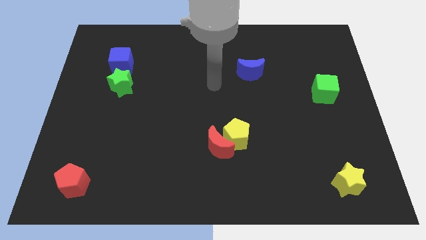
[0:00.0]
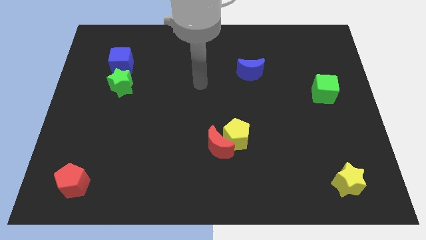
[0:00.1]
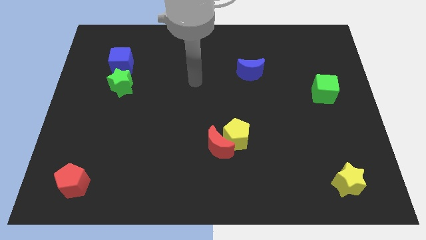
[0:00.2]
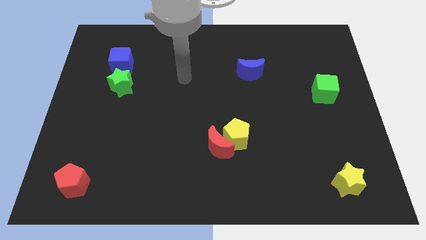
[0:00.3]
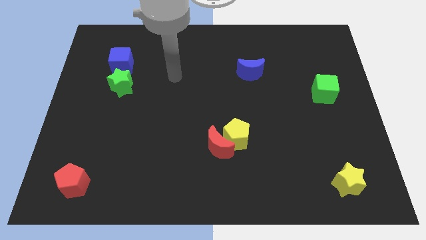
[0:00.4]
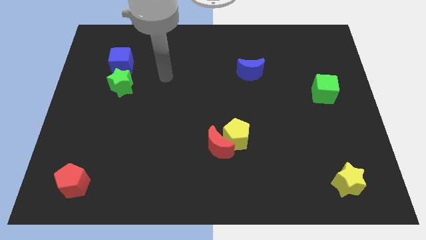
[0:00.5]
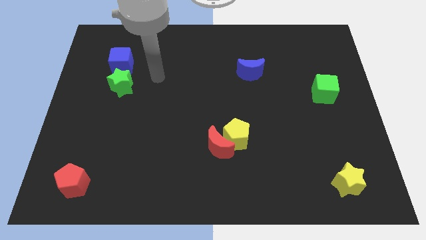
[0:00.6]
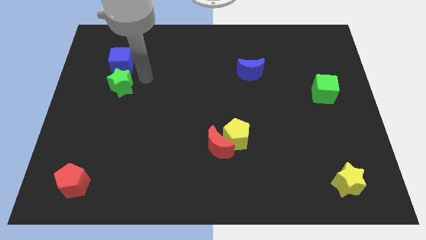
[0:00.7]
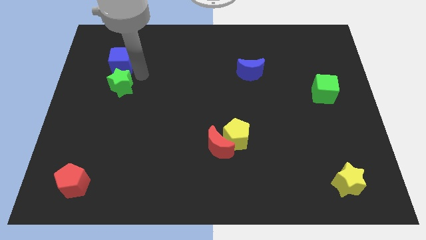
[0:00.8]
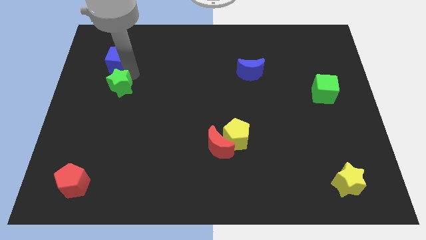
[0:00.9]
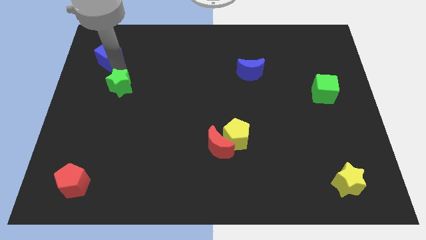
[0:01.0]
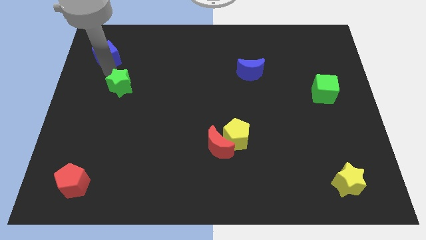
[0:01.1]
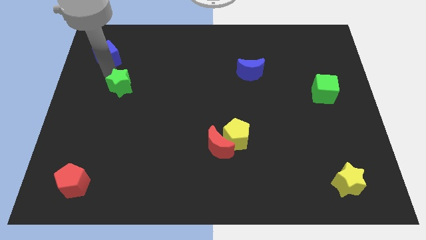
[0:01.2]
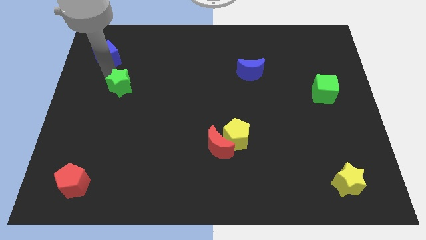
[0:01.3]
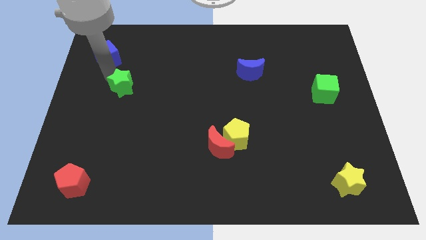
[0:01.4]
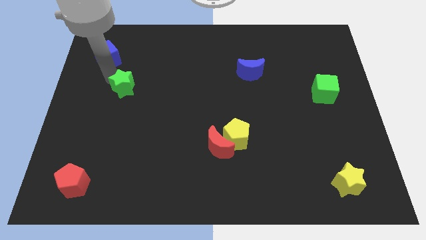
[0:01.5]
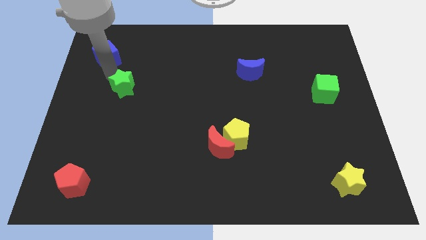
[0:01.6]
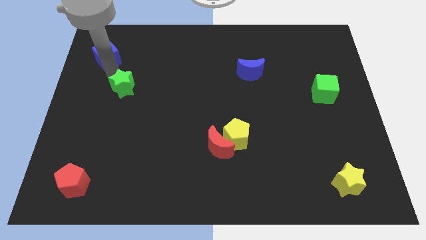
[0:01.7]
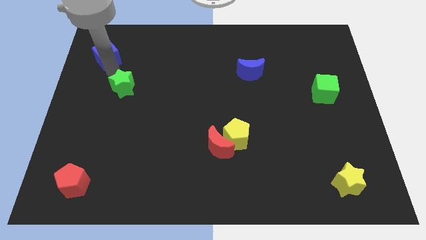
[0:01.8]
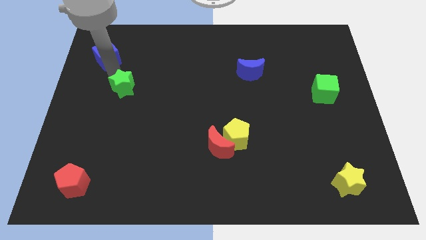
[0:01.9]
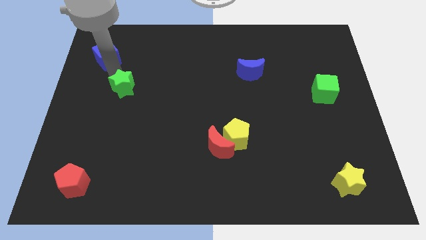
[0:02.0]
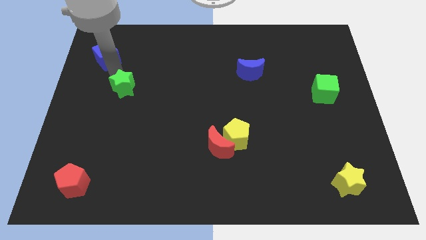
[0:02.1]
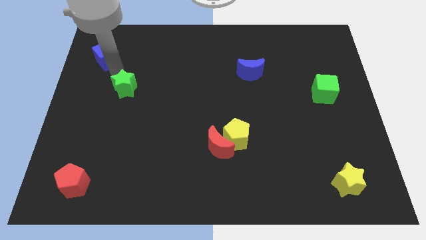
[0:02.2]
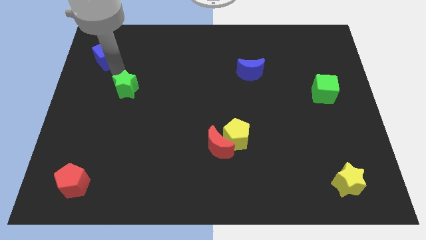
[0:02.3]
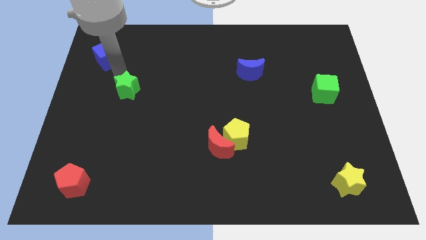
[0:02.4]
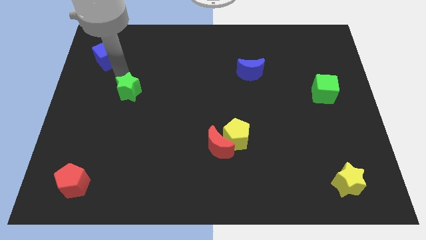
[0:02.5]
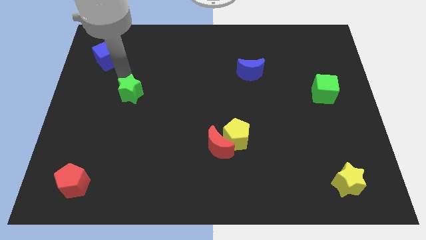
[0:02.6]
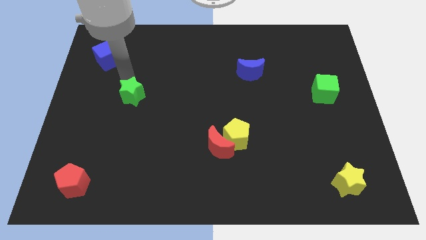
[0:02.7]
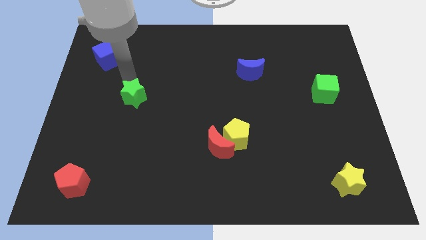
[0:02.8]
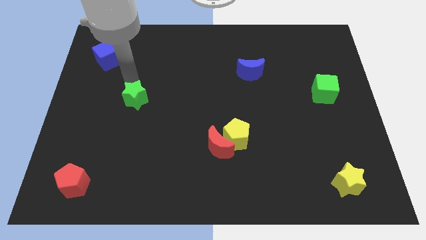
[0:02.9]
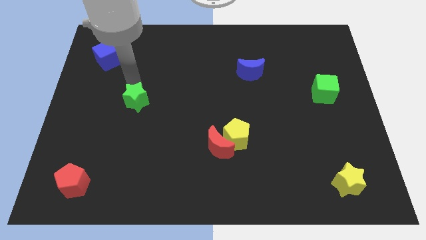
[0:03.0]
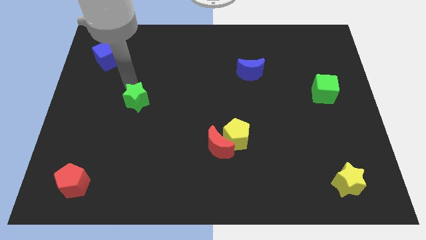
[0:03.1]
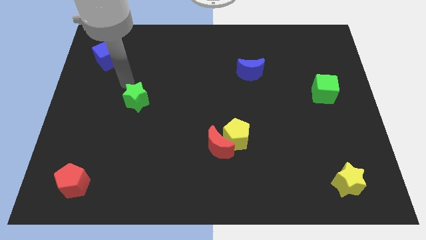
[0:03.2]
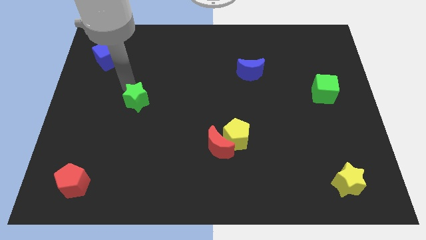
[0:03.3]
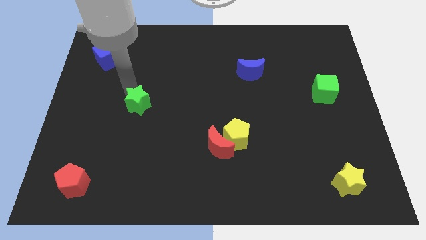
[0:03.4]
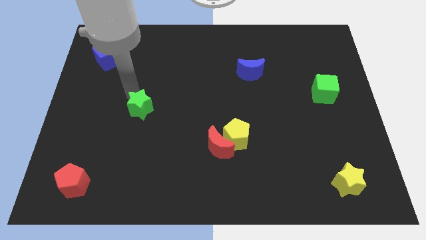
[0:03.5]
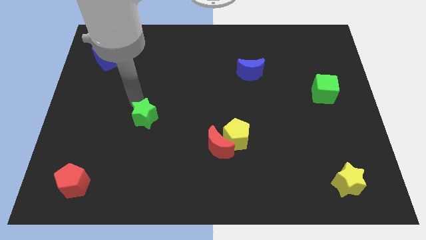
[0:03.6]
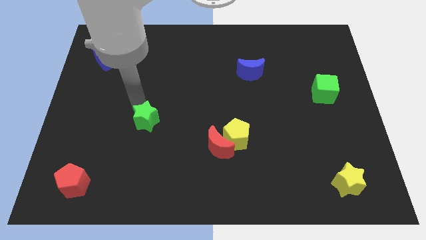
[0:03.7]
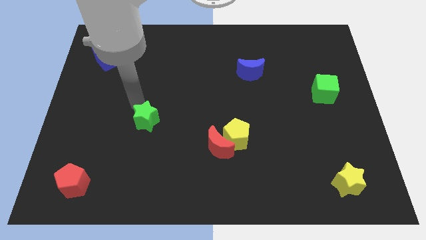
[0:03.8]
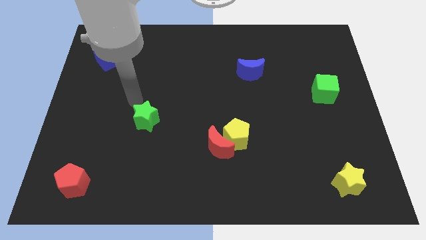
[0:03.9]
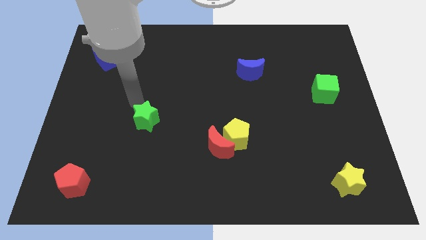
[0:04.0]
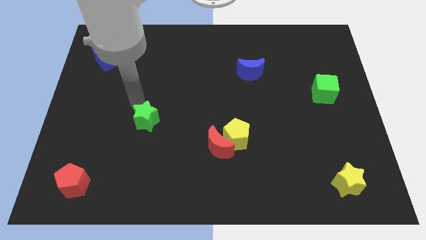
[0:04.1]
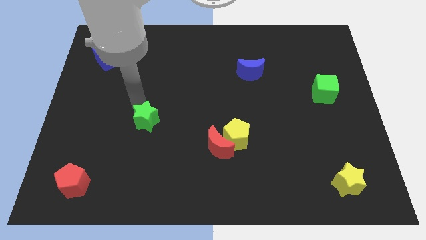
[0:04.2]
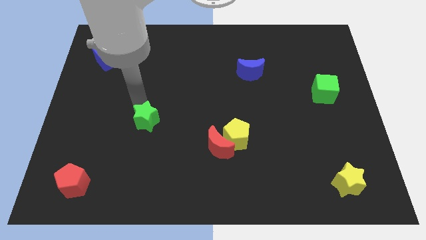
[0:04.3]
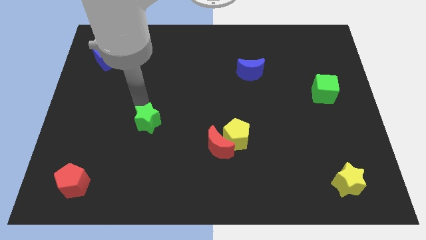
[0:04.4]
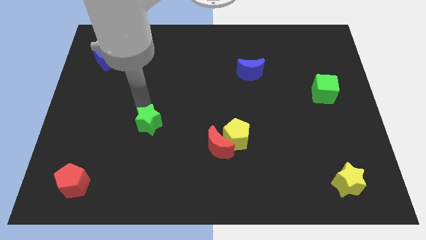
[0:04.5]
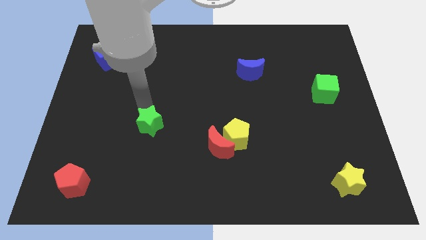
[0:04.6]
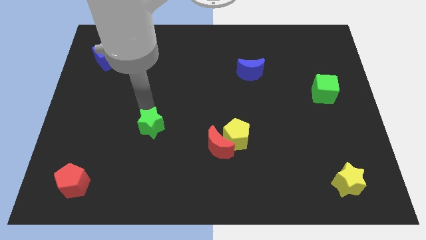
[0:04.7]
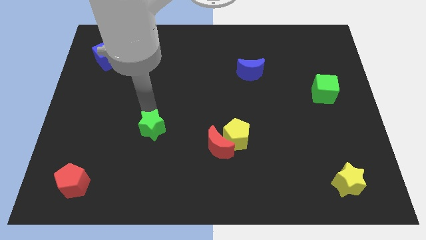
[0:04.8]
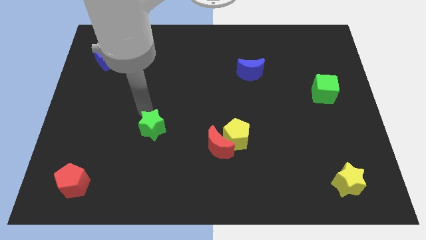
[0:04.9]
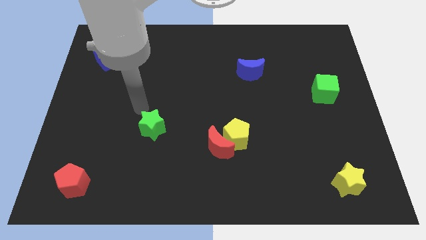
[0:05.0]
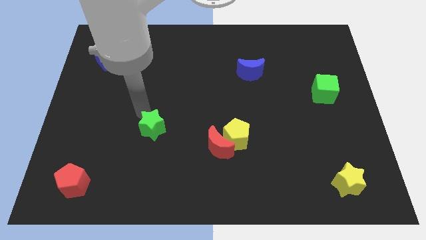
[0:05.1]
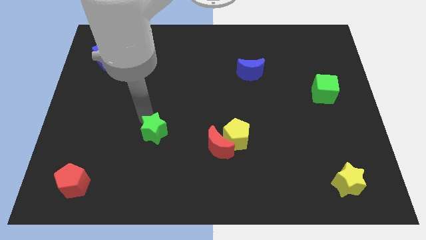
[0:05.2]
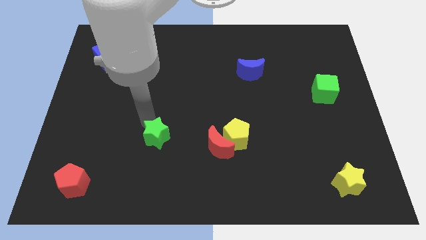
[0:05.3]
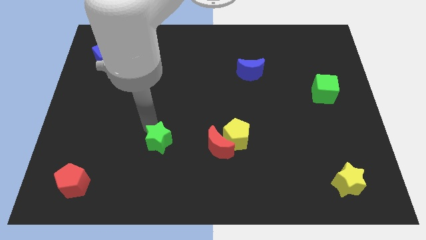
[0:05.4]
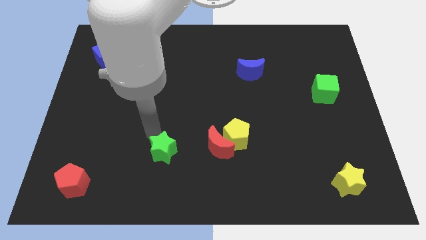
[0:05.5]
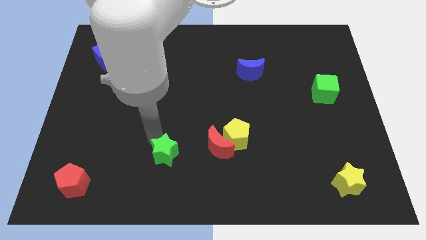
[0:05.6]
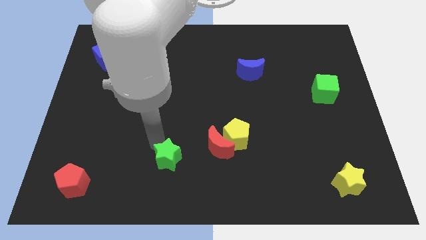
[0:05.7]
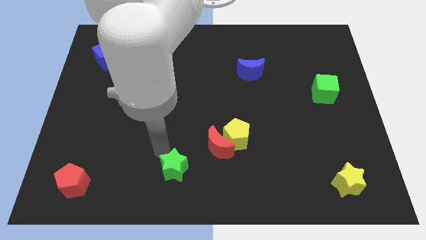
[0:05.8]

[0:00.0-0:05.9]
move the green star to the bottom side

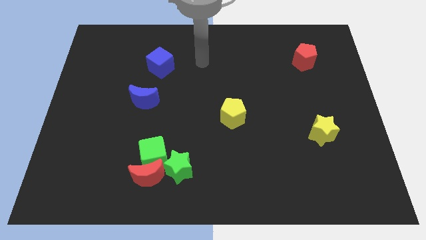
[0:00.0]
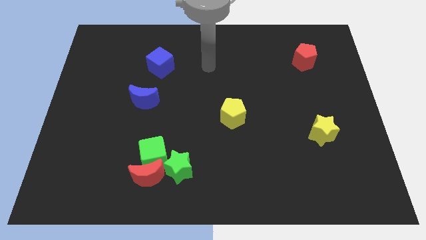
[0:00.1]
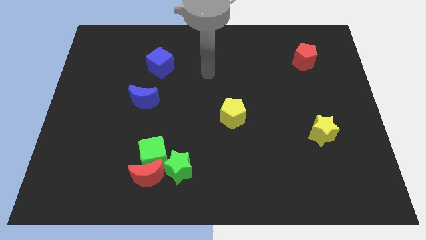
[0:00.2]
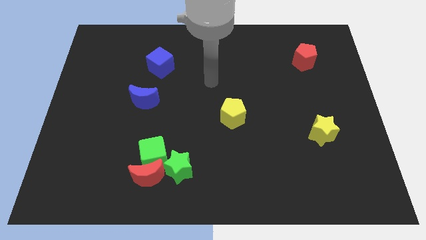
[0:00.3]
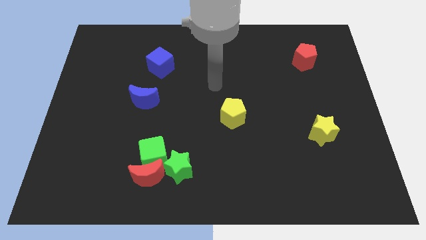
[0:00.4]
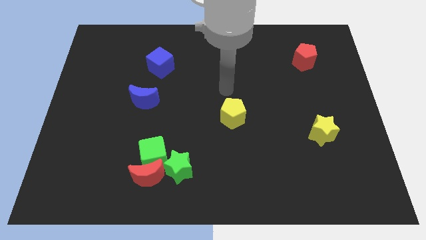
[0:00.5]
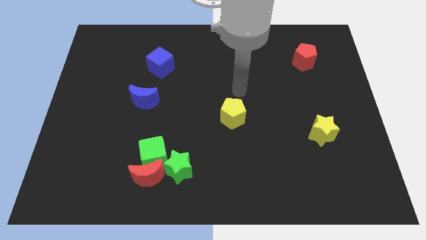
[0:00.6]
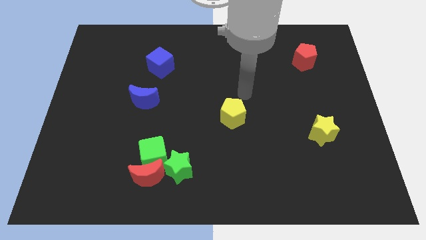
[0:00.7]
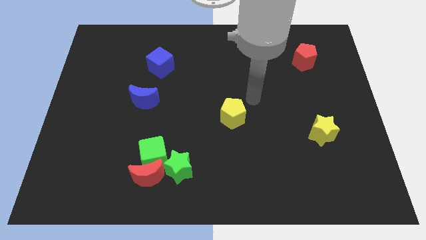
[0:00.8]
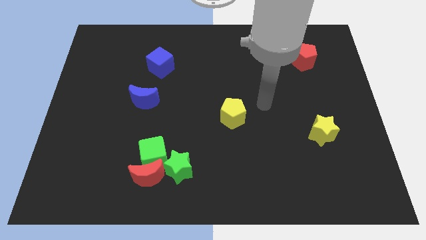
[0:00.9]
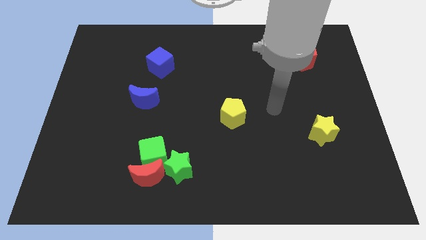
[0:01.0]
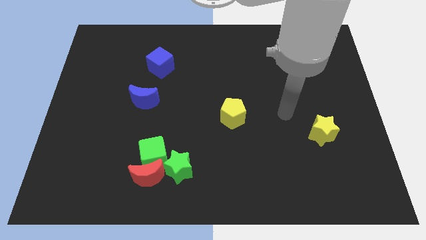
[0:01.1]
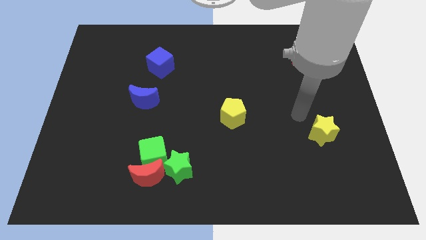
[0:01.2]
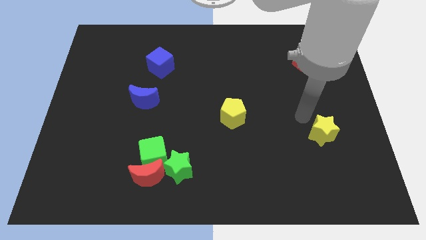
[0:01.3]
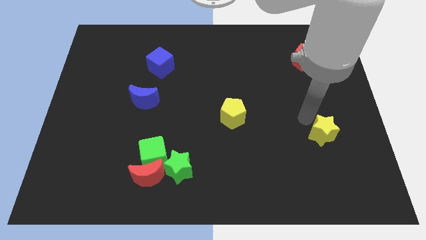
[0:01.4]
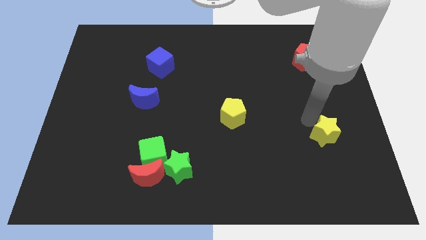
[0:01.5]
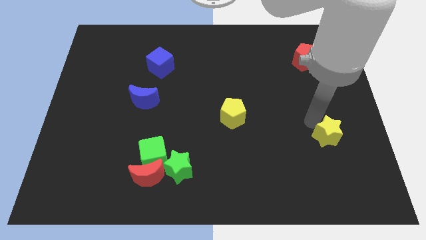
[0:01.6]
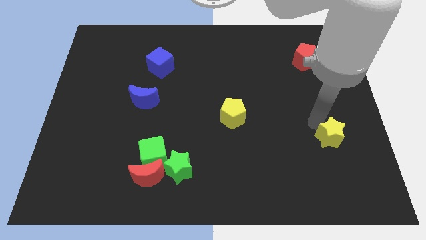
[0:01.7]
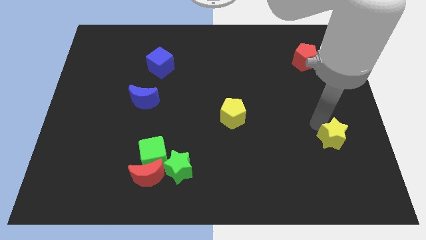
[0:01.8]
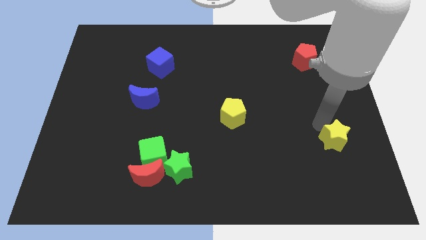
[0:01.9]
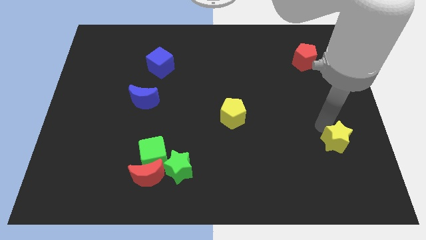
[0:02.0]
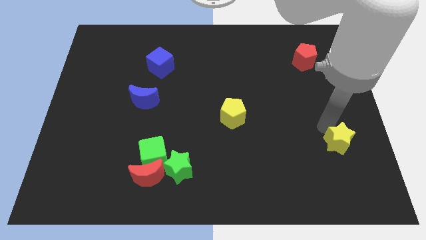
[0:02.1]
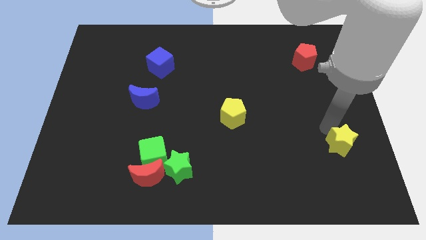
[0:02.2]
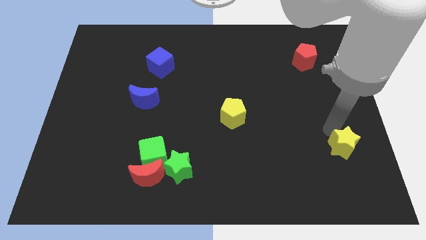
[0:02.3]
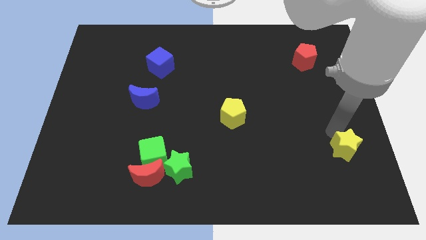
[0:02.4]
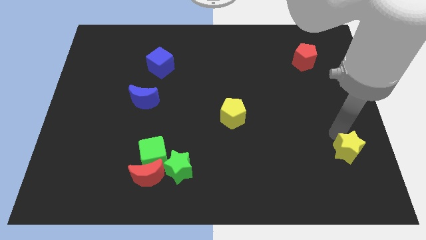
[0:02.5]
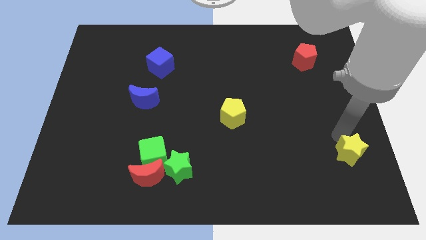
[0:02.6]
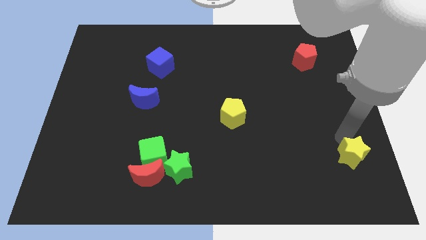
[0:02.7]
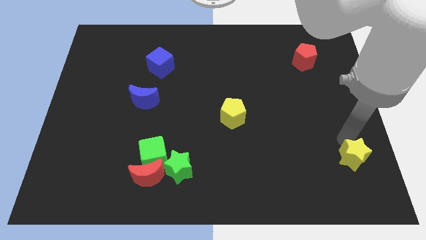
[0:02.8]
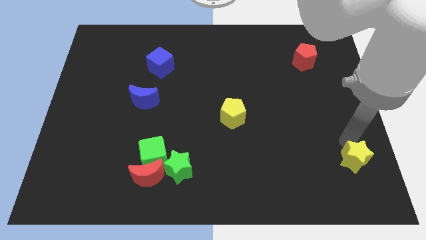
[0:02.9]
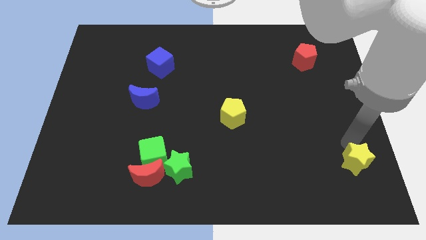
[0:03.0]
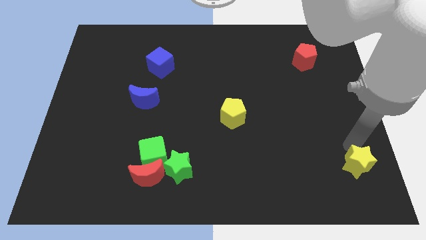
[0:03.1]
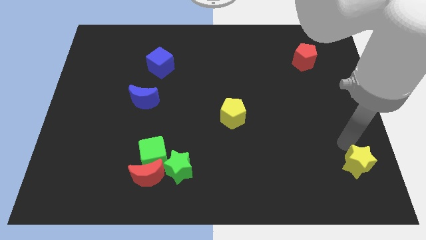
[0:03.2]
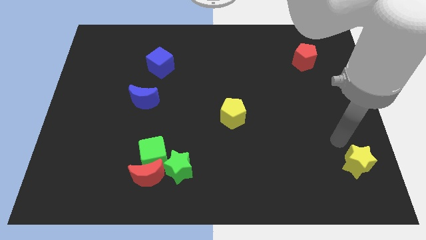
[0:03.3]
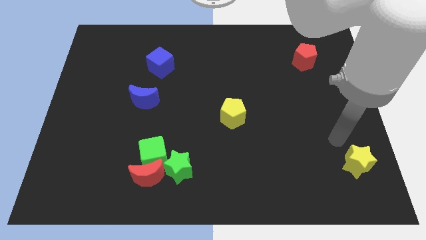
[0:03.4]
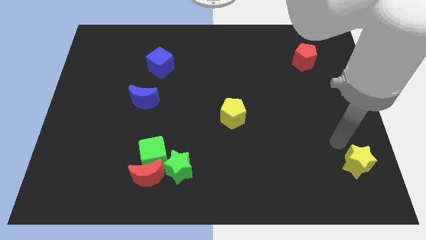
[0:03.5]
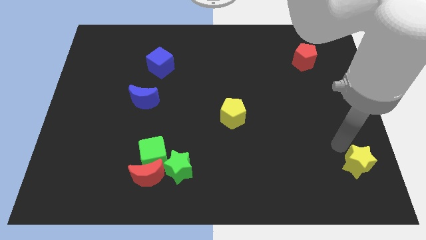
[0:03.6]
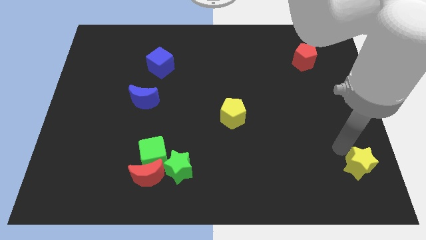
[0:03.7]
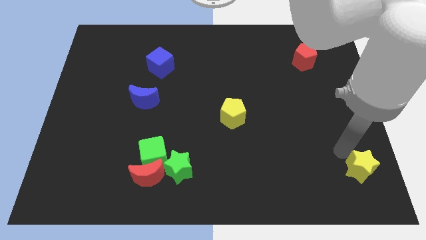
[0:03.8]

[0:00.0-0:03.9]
put the yellow star to the bottom right corner
